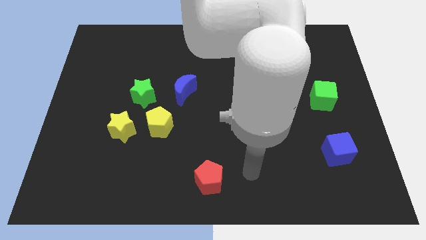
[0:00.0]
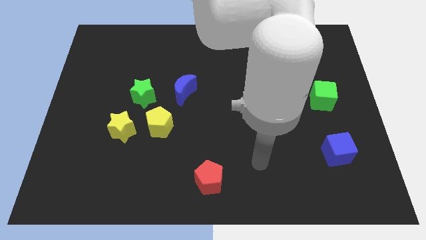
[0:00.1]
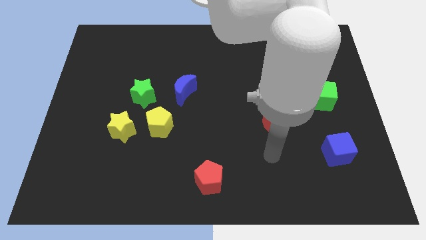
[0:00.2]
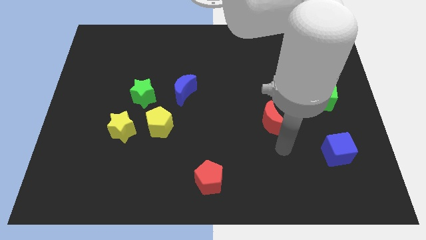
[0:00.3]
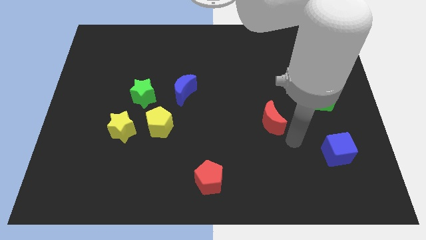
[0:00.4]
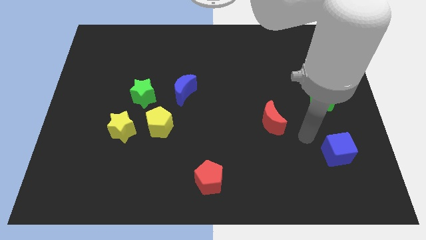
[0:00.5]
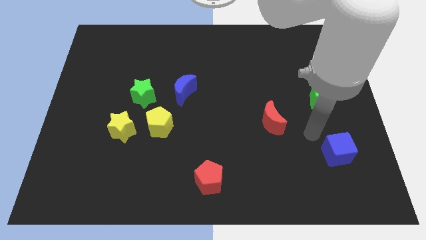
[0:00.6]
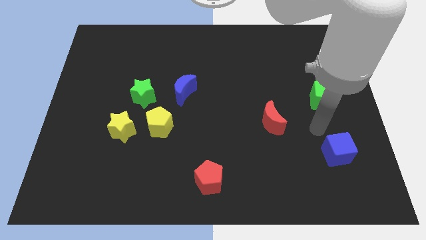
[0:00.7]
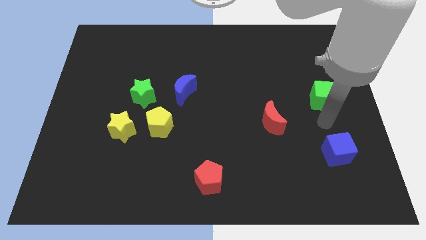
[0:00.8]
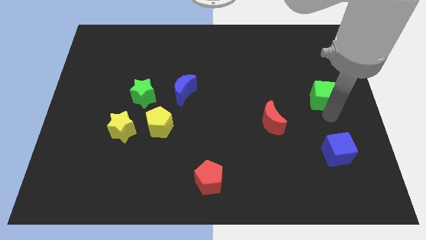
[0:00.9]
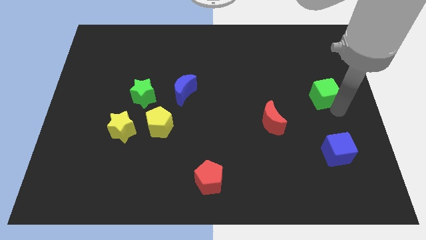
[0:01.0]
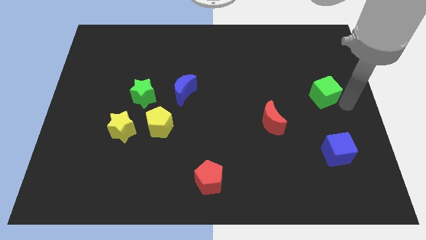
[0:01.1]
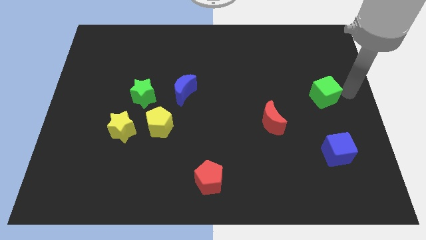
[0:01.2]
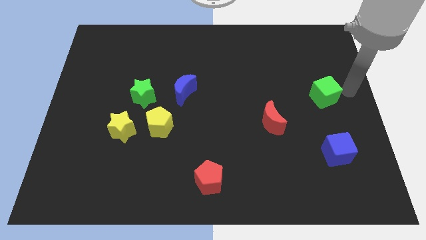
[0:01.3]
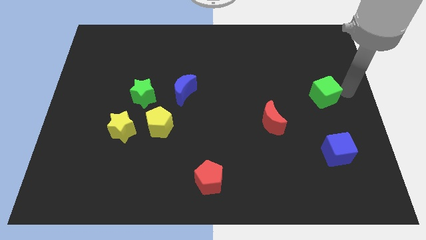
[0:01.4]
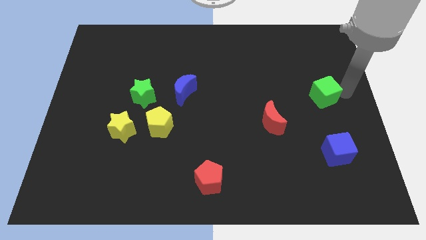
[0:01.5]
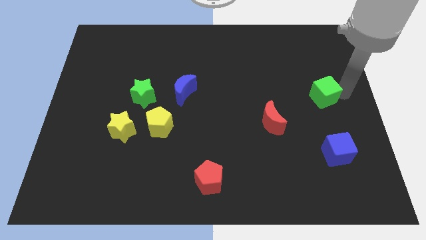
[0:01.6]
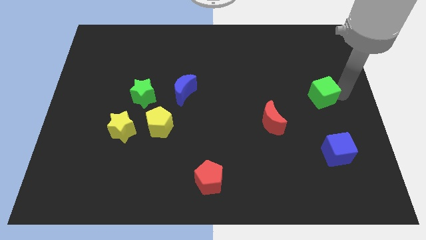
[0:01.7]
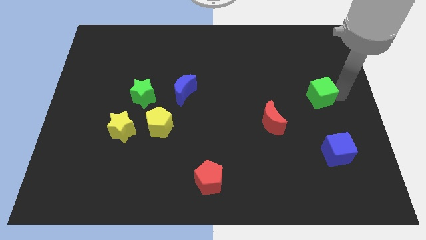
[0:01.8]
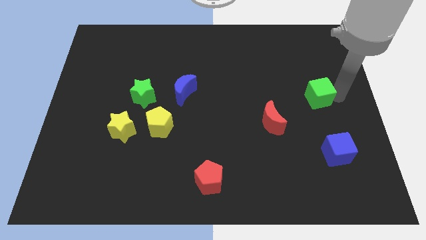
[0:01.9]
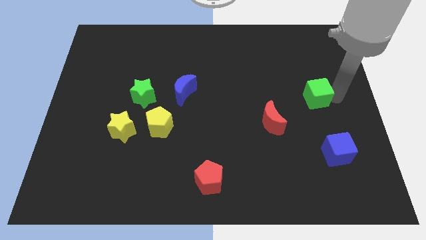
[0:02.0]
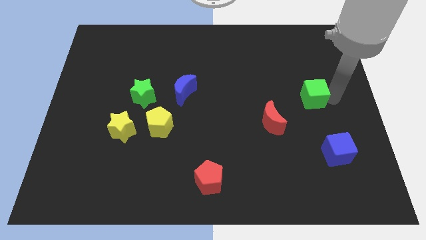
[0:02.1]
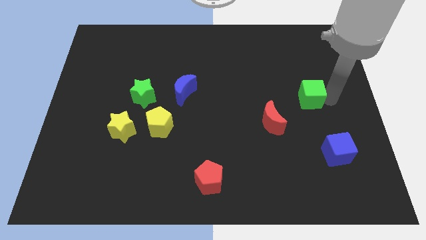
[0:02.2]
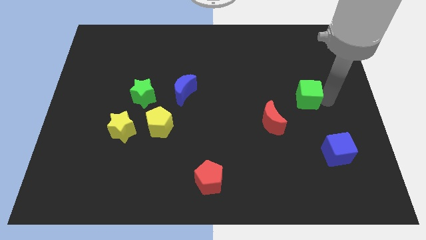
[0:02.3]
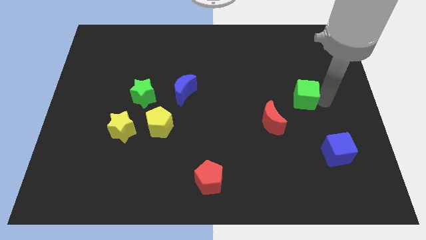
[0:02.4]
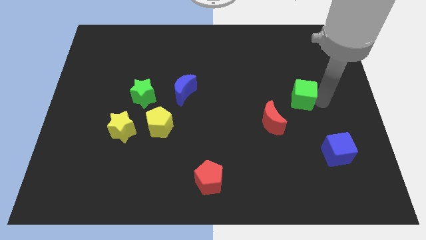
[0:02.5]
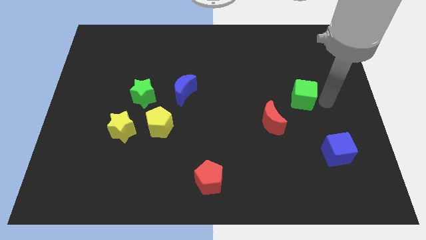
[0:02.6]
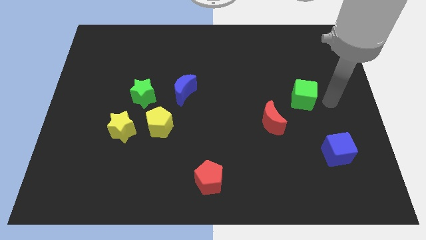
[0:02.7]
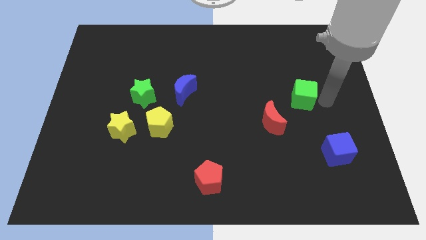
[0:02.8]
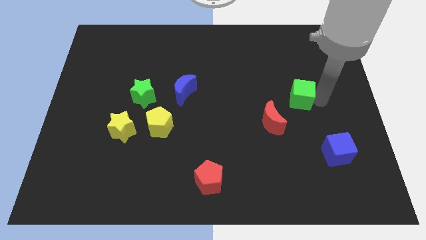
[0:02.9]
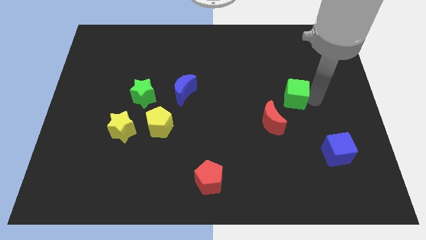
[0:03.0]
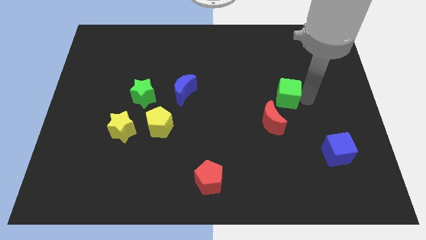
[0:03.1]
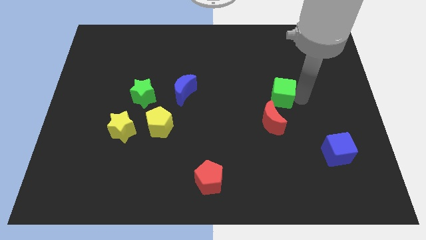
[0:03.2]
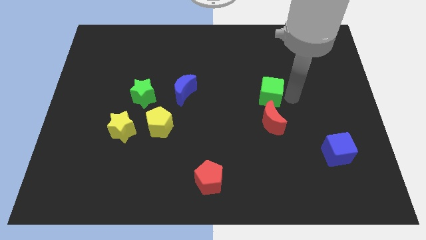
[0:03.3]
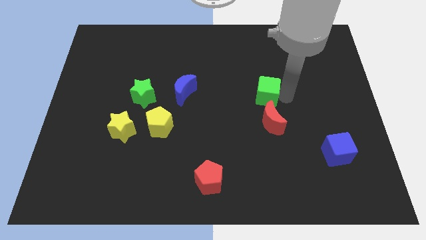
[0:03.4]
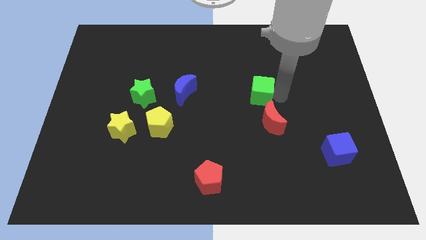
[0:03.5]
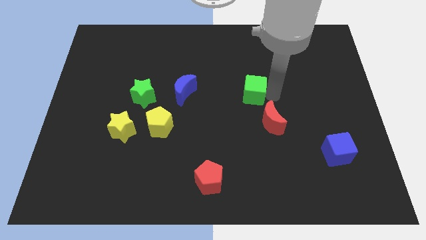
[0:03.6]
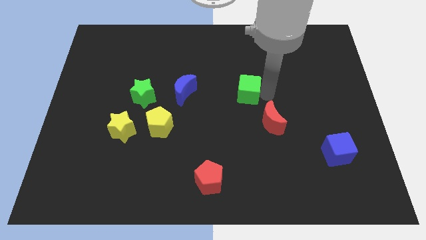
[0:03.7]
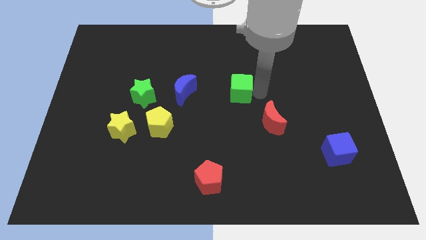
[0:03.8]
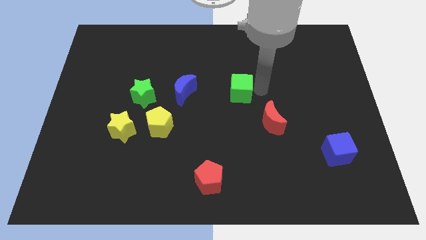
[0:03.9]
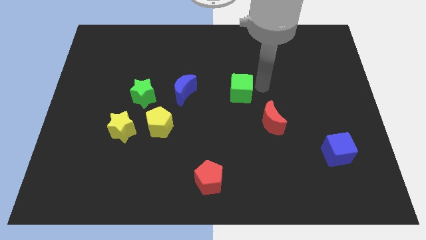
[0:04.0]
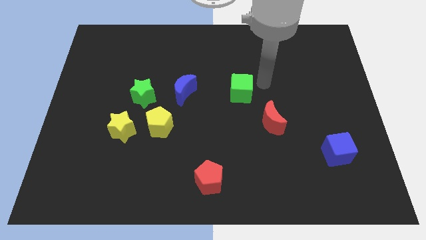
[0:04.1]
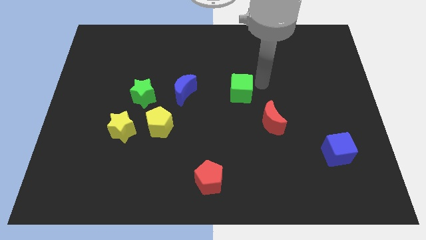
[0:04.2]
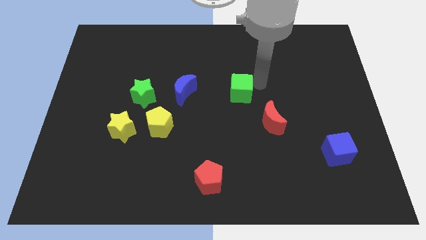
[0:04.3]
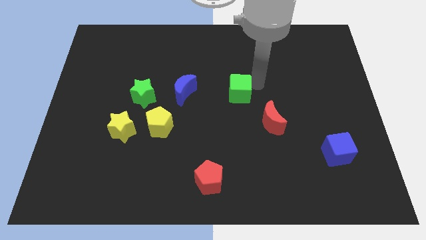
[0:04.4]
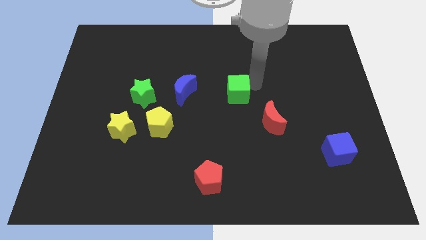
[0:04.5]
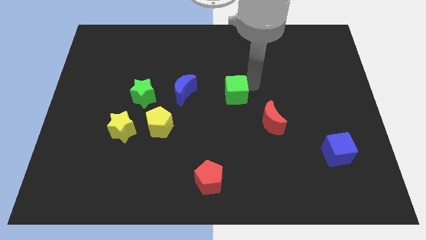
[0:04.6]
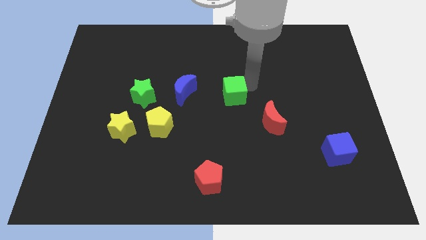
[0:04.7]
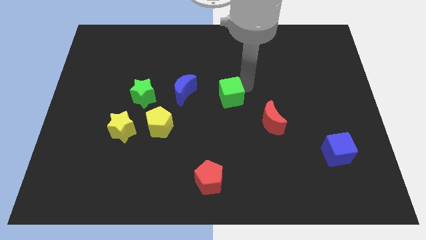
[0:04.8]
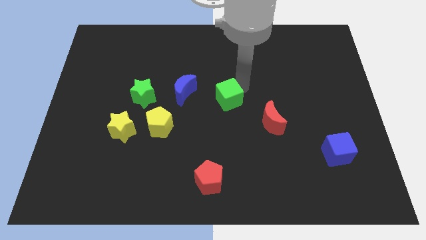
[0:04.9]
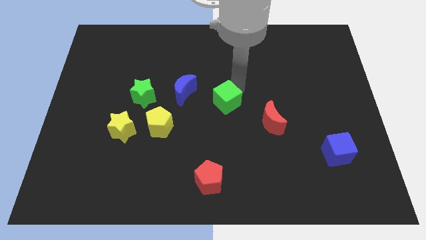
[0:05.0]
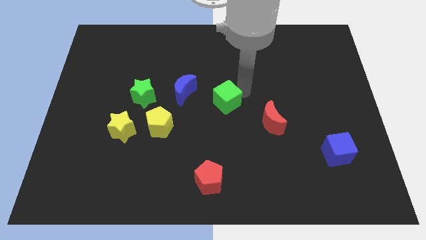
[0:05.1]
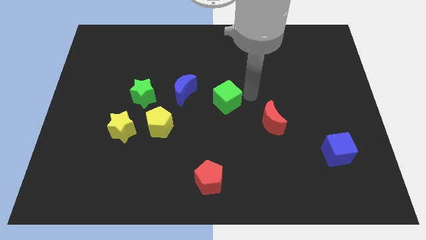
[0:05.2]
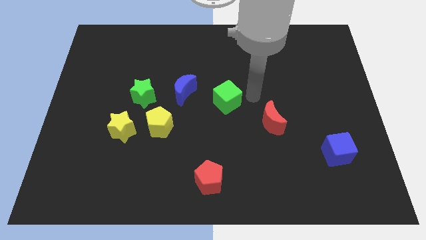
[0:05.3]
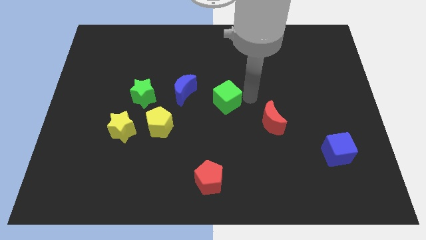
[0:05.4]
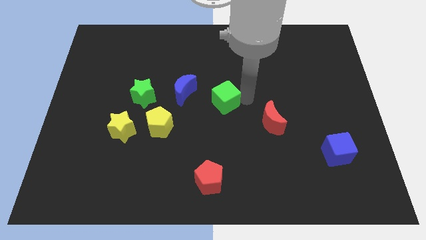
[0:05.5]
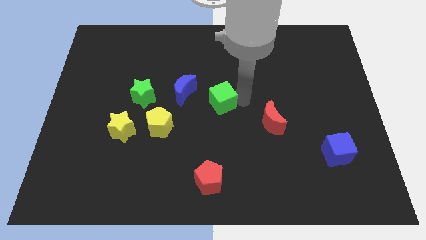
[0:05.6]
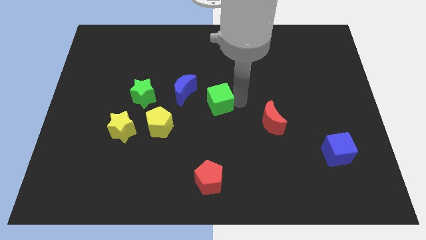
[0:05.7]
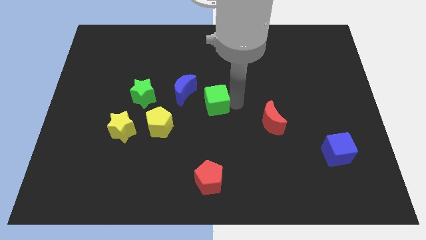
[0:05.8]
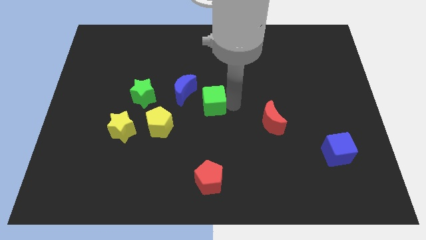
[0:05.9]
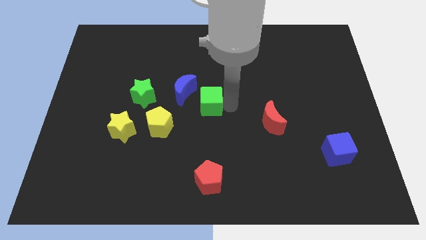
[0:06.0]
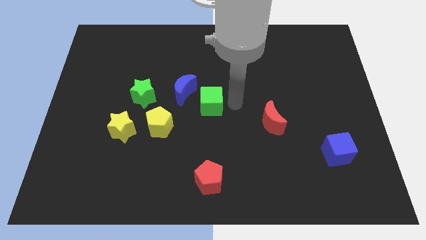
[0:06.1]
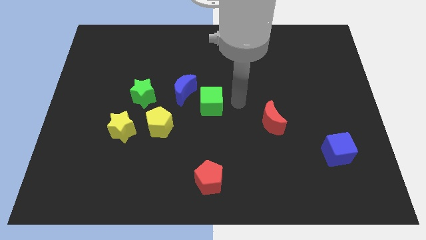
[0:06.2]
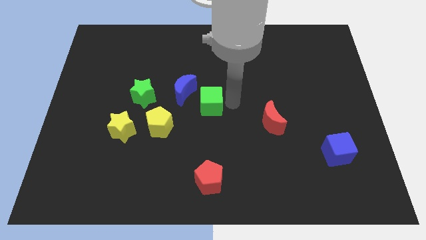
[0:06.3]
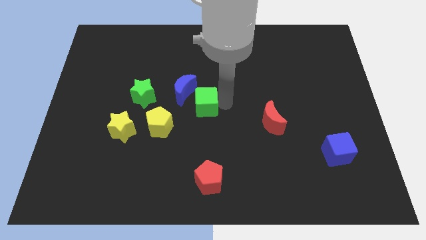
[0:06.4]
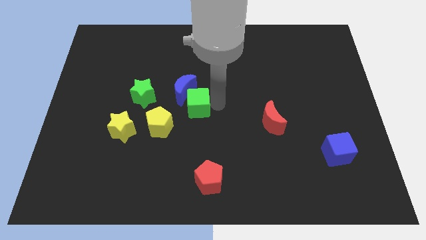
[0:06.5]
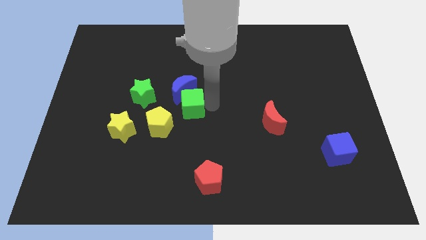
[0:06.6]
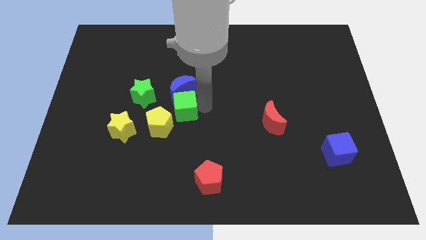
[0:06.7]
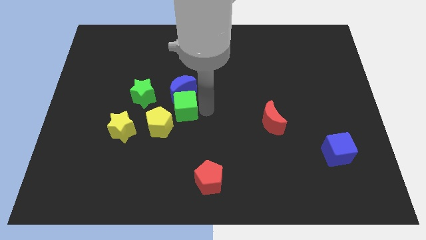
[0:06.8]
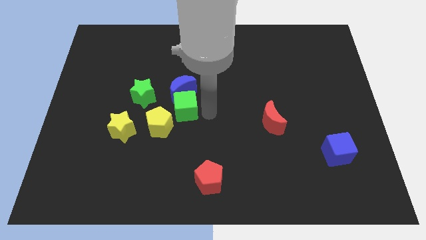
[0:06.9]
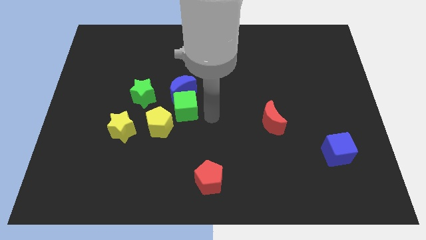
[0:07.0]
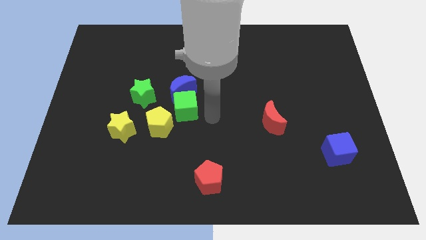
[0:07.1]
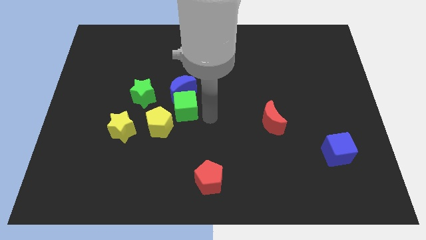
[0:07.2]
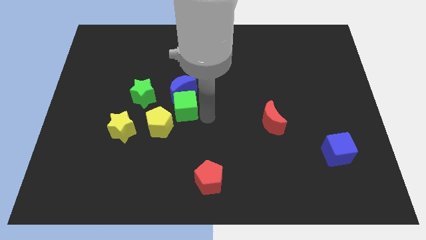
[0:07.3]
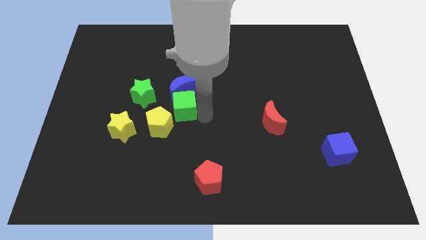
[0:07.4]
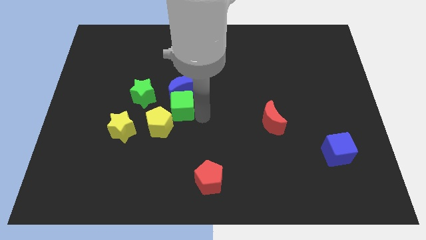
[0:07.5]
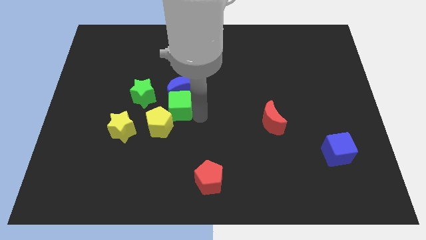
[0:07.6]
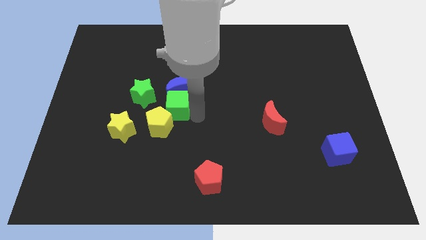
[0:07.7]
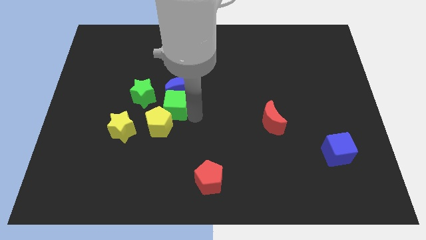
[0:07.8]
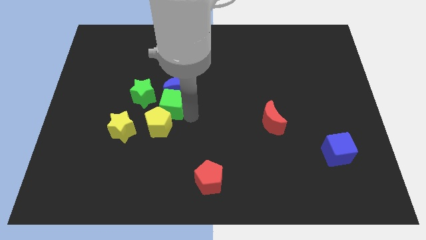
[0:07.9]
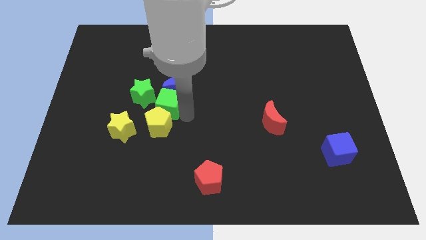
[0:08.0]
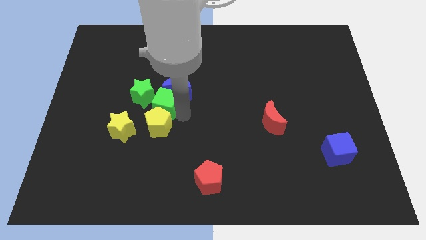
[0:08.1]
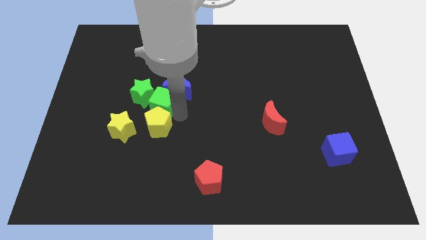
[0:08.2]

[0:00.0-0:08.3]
slide the green cube towards the green star
